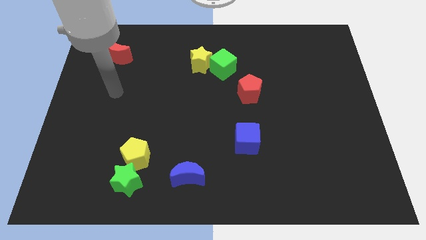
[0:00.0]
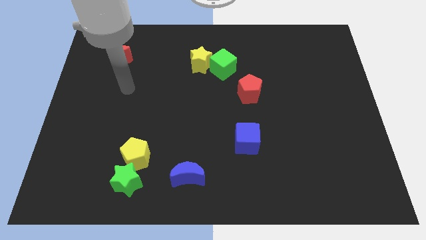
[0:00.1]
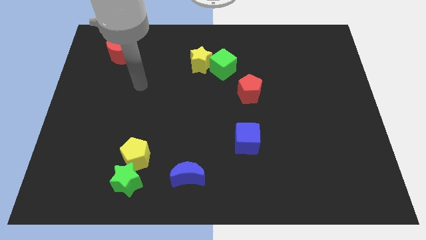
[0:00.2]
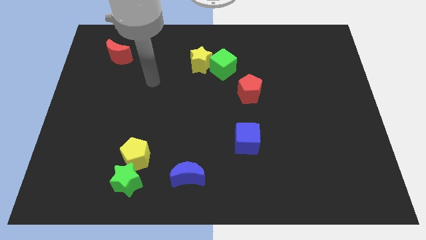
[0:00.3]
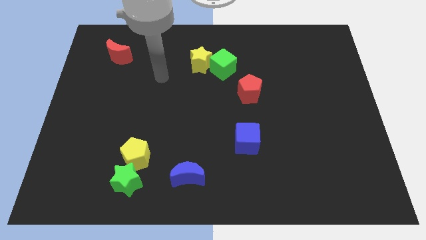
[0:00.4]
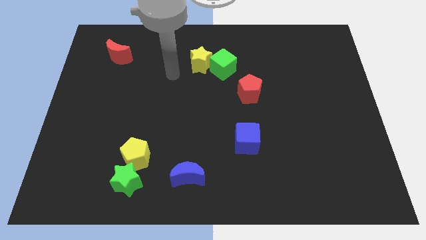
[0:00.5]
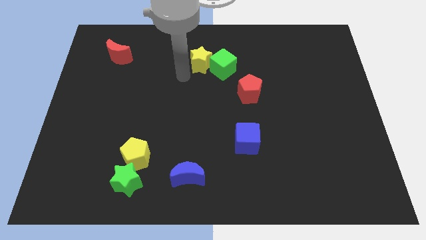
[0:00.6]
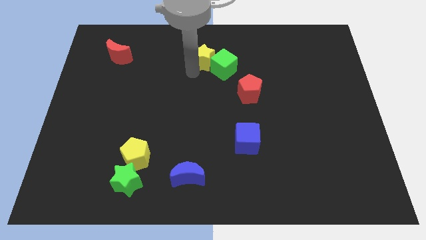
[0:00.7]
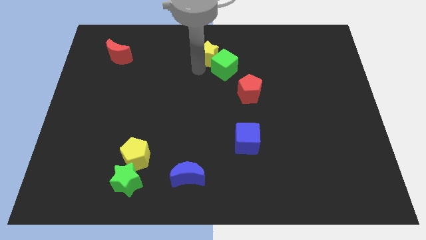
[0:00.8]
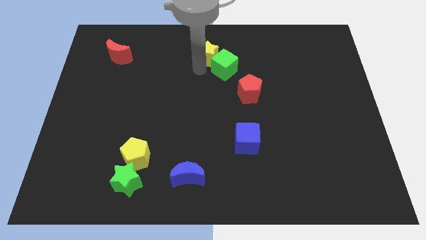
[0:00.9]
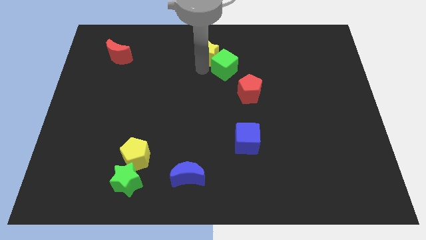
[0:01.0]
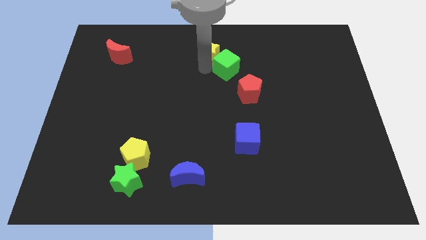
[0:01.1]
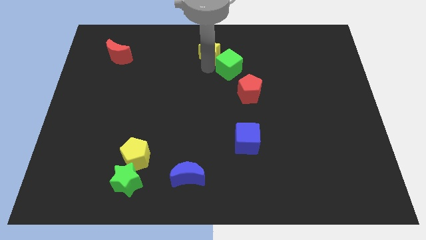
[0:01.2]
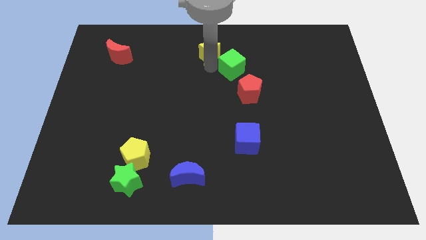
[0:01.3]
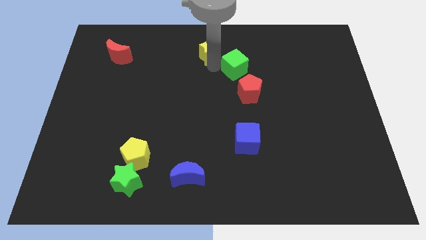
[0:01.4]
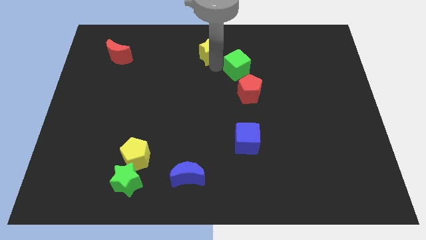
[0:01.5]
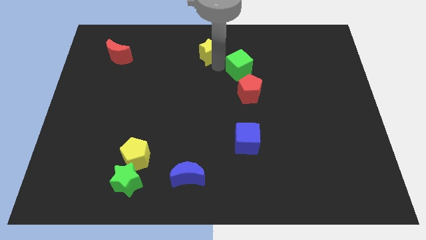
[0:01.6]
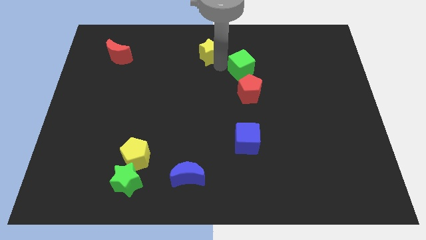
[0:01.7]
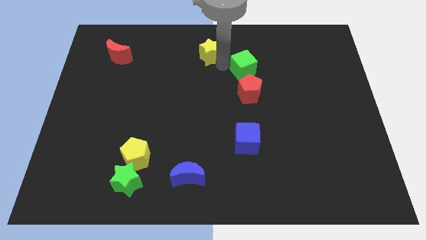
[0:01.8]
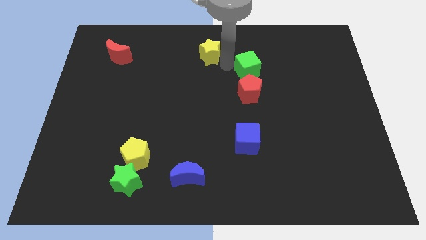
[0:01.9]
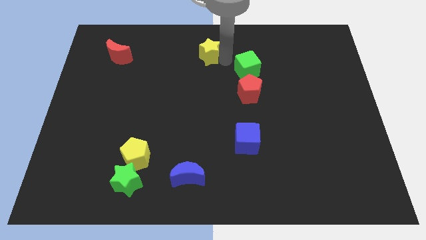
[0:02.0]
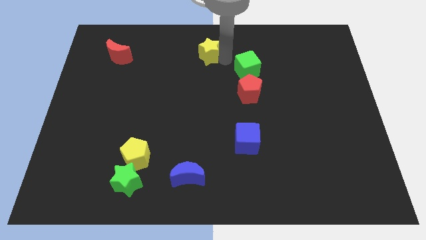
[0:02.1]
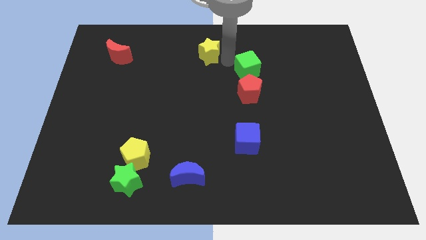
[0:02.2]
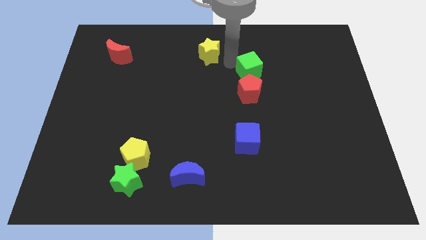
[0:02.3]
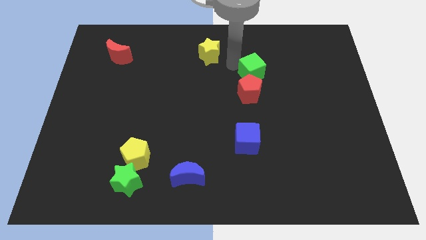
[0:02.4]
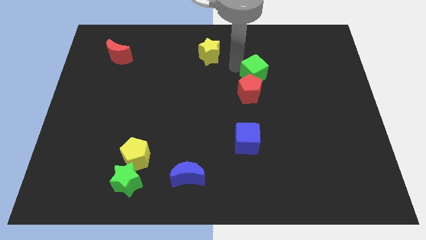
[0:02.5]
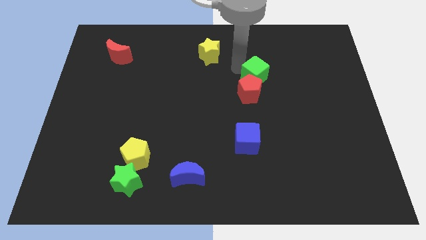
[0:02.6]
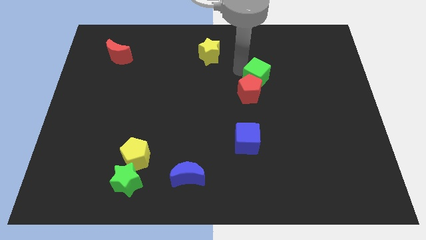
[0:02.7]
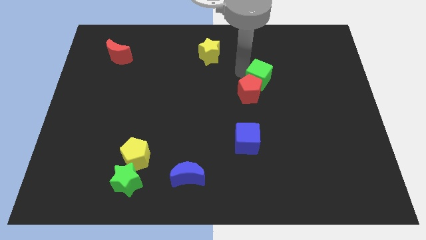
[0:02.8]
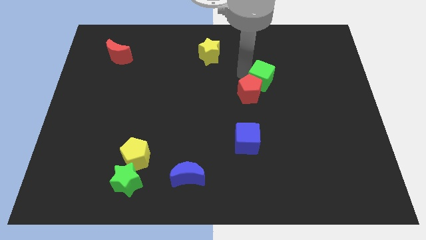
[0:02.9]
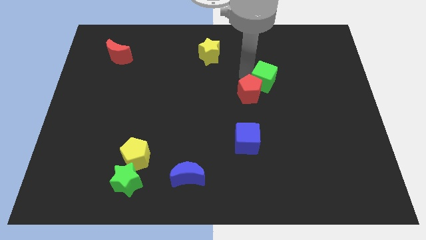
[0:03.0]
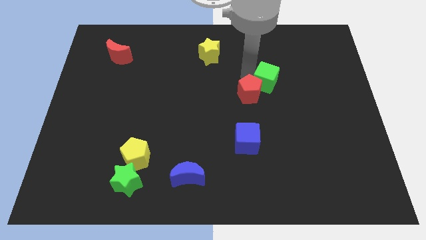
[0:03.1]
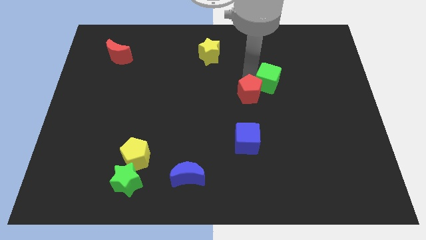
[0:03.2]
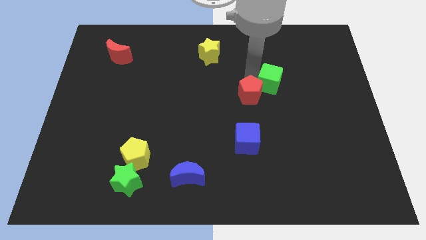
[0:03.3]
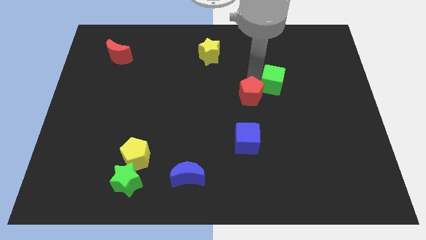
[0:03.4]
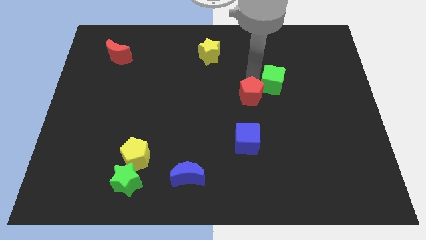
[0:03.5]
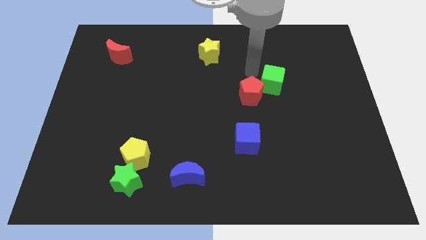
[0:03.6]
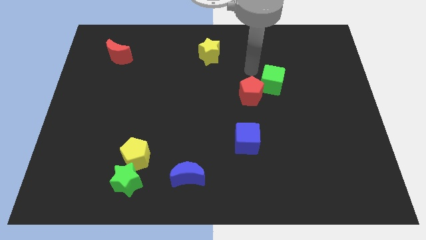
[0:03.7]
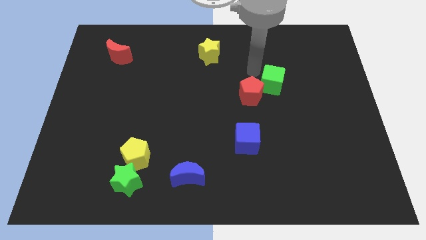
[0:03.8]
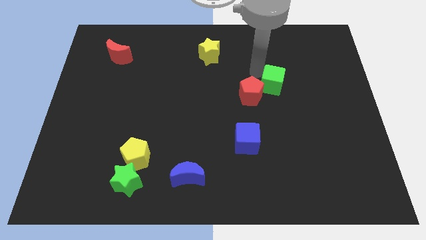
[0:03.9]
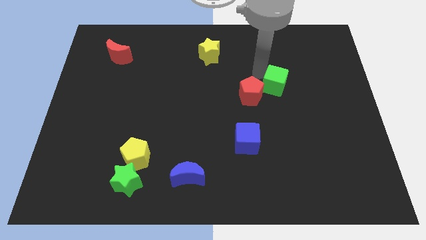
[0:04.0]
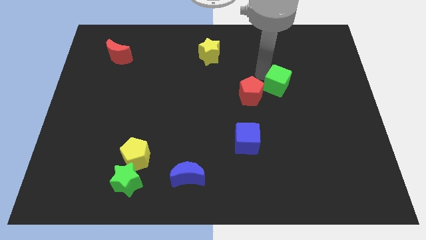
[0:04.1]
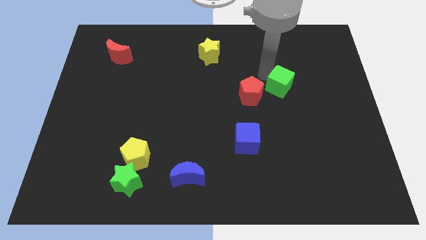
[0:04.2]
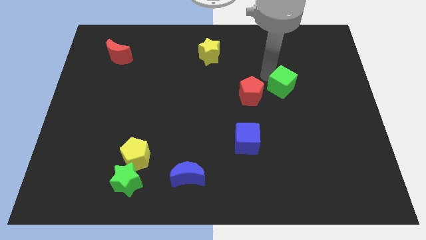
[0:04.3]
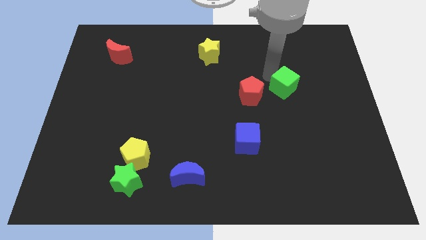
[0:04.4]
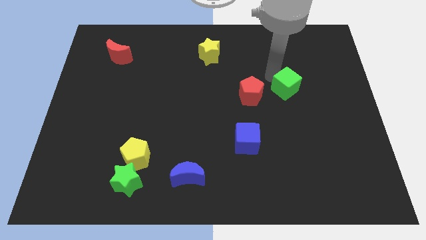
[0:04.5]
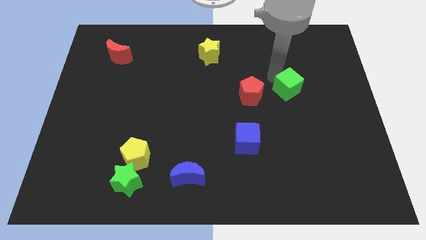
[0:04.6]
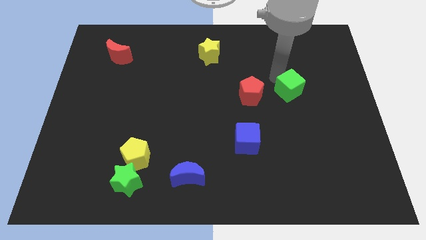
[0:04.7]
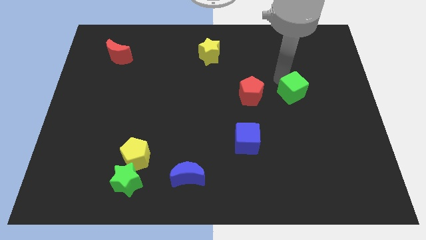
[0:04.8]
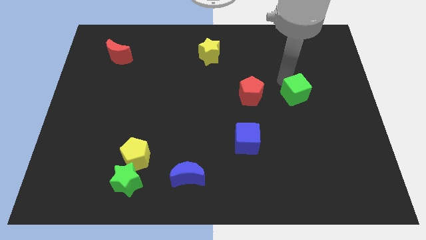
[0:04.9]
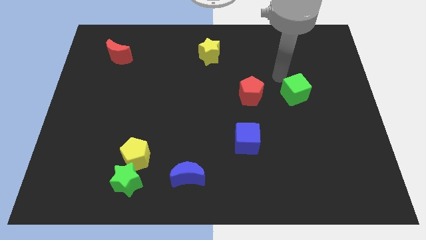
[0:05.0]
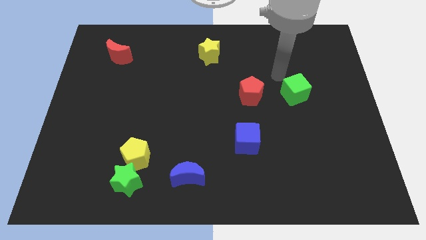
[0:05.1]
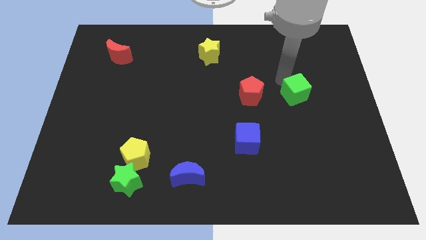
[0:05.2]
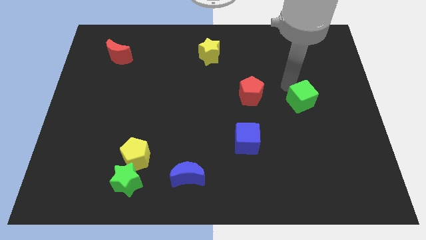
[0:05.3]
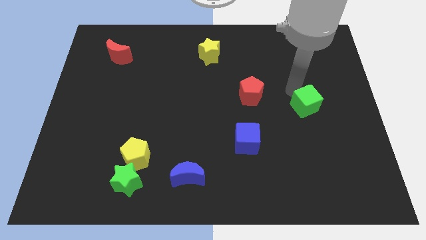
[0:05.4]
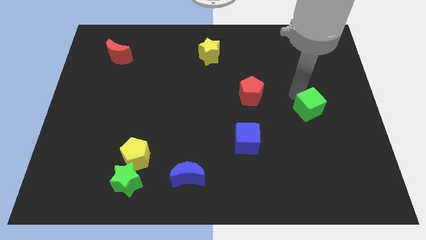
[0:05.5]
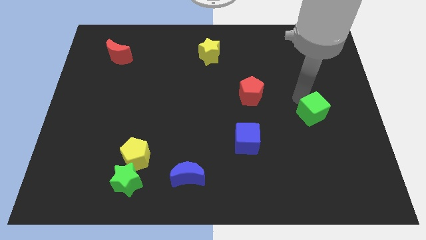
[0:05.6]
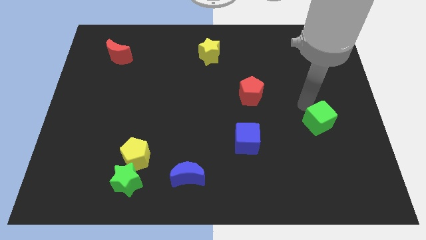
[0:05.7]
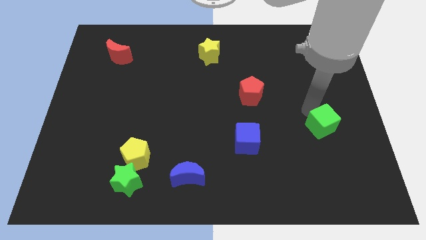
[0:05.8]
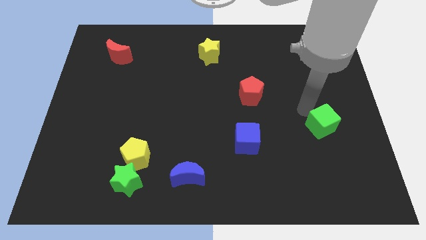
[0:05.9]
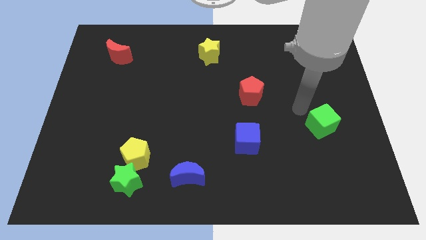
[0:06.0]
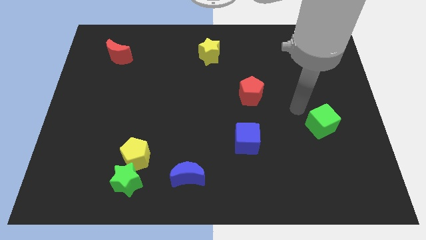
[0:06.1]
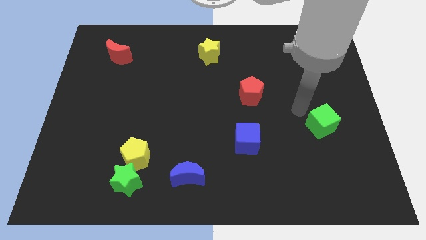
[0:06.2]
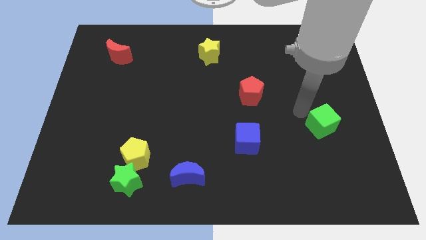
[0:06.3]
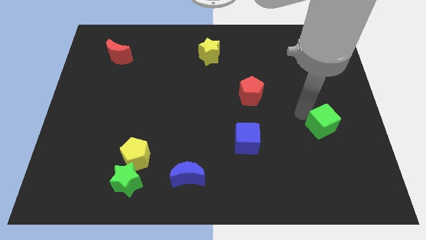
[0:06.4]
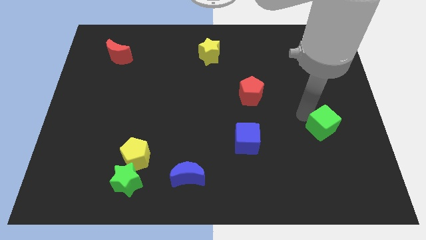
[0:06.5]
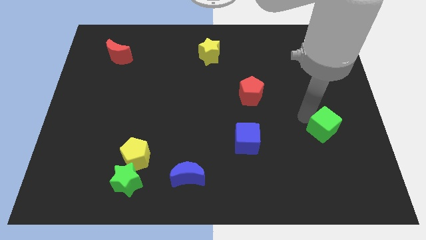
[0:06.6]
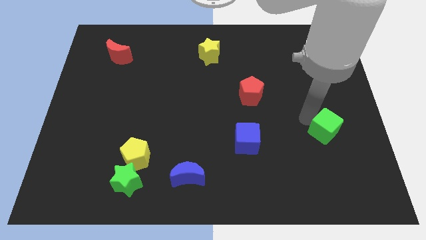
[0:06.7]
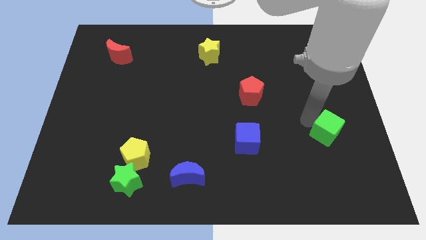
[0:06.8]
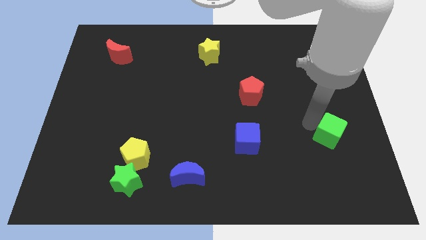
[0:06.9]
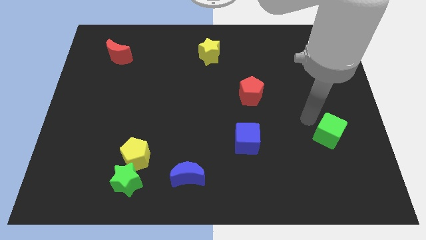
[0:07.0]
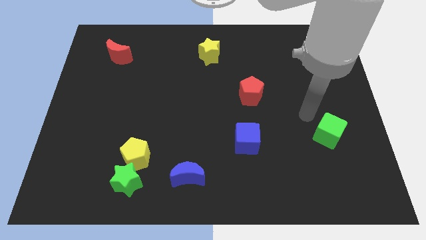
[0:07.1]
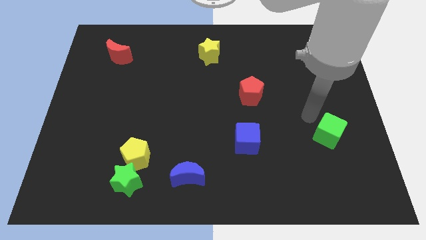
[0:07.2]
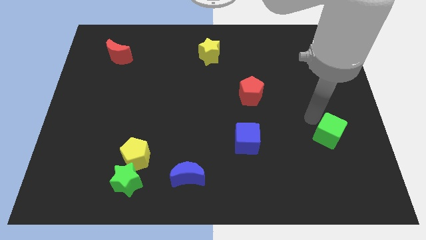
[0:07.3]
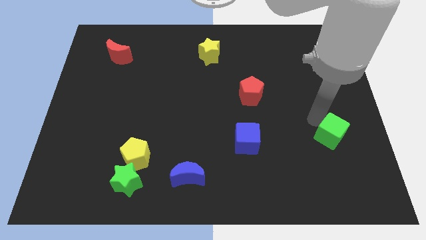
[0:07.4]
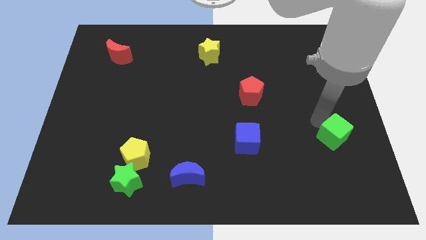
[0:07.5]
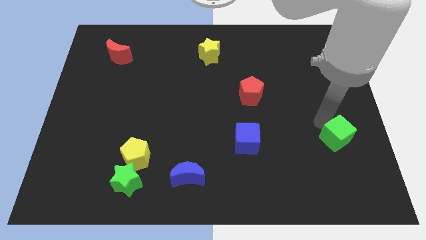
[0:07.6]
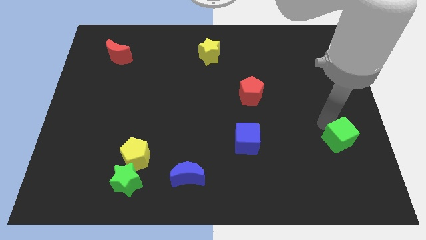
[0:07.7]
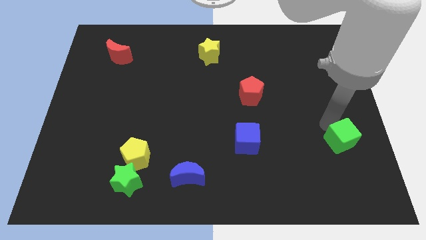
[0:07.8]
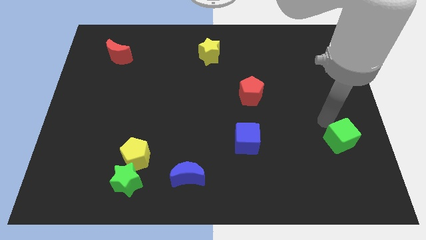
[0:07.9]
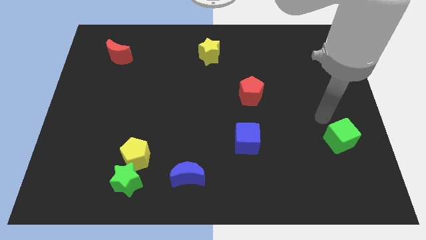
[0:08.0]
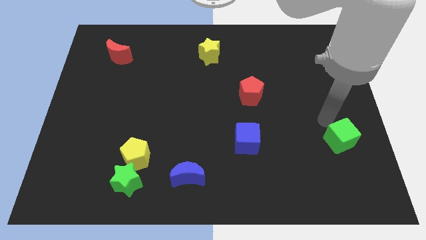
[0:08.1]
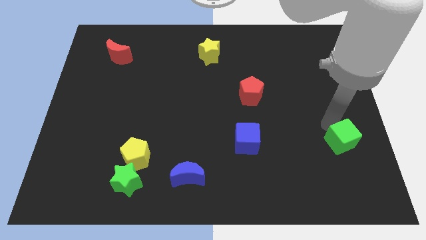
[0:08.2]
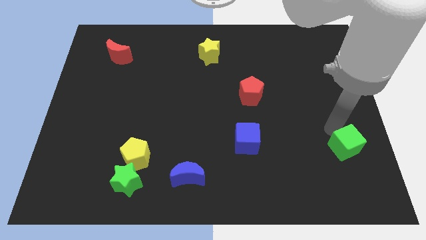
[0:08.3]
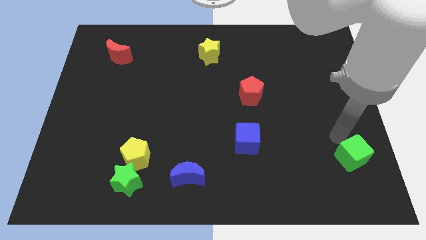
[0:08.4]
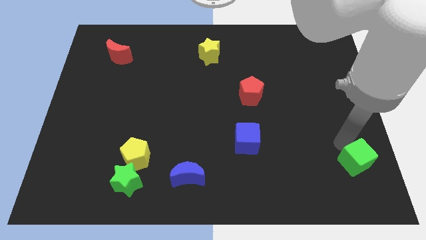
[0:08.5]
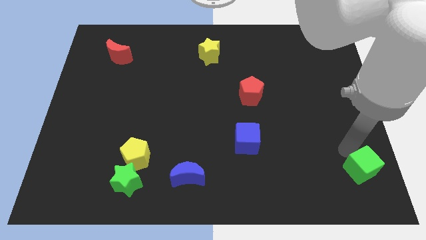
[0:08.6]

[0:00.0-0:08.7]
push the green cube to the bottom right
